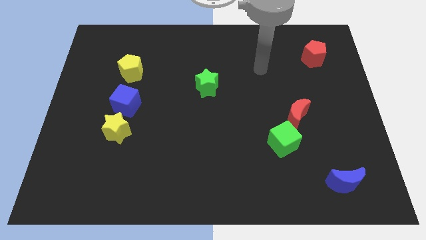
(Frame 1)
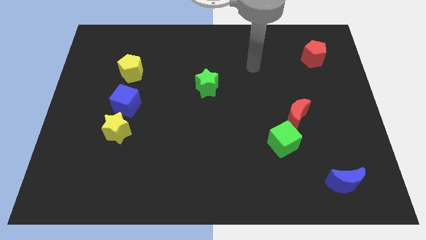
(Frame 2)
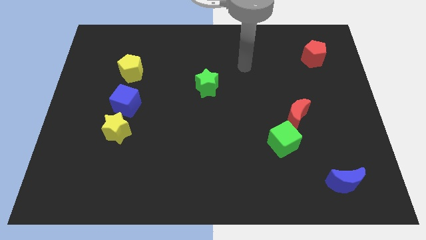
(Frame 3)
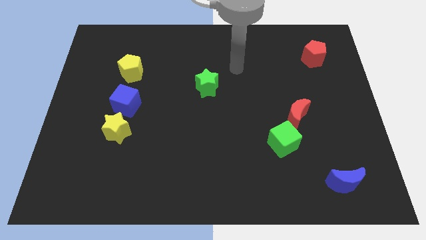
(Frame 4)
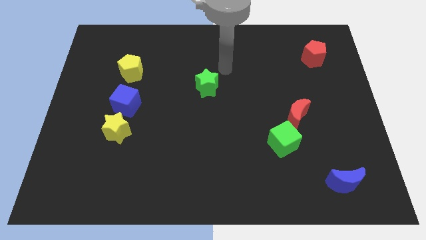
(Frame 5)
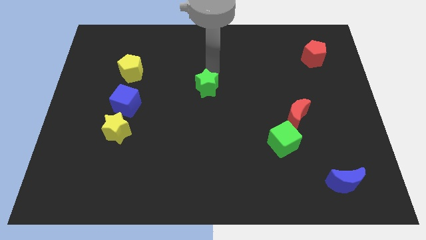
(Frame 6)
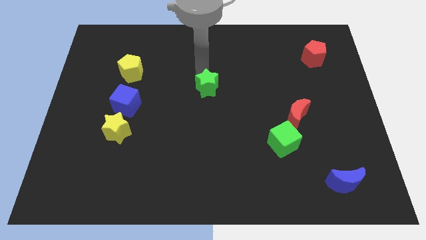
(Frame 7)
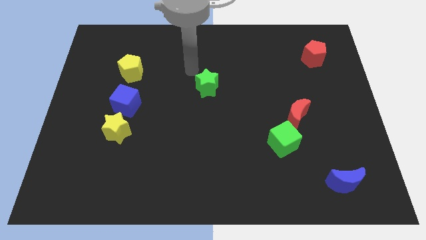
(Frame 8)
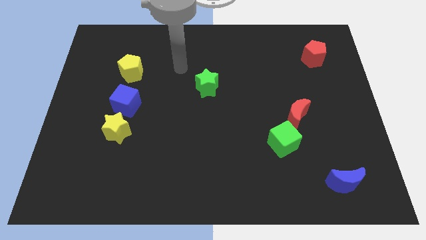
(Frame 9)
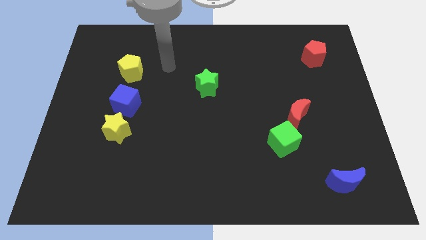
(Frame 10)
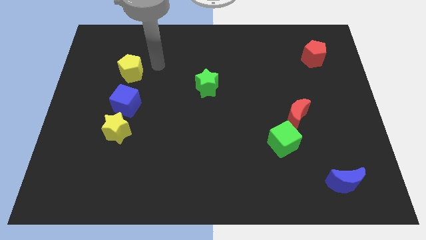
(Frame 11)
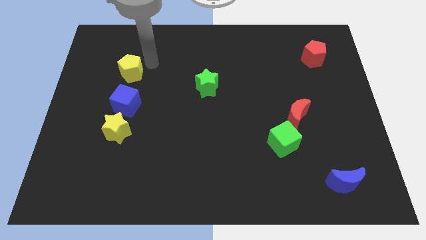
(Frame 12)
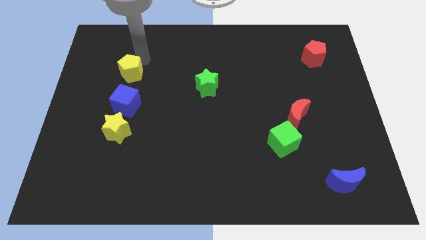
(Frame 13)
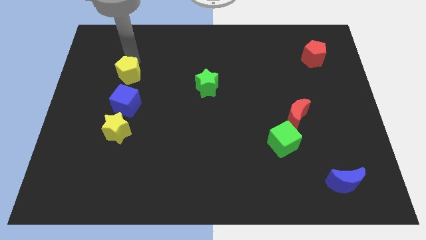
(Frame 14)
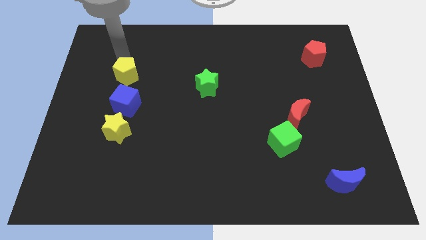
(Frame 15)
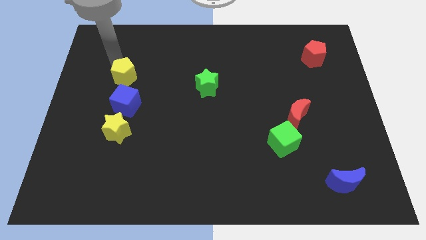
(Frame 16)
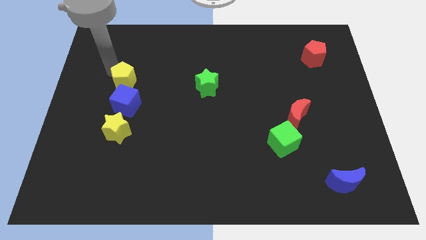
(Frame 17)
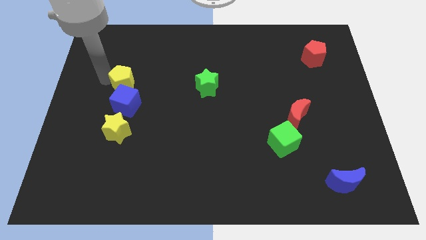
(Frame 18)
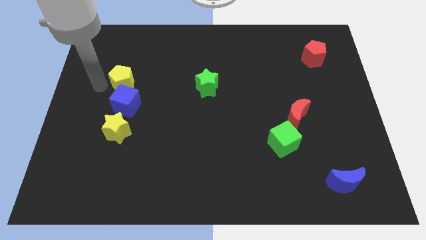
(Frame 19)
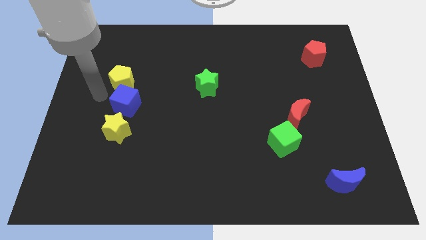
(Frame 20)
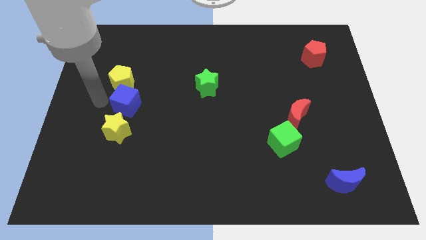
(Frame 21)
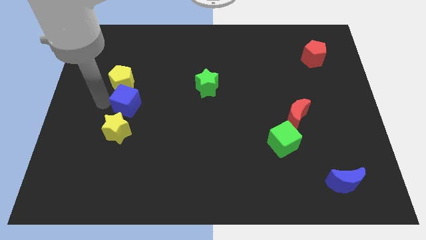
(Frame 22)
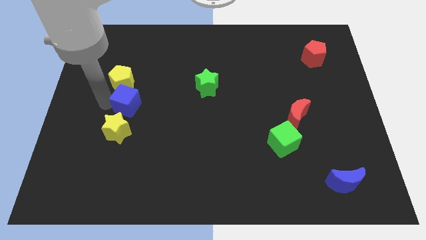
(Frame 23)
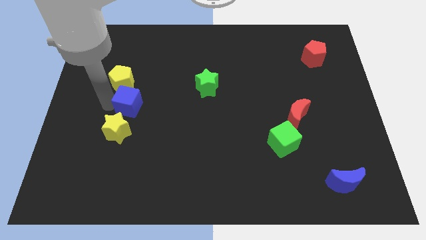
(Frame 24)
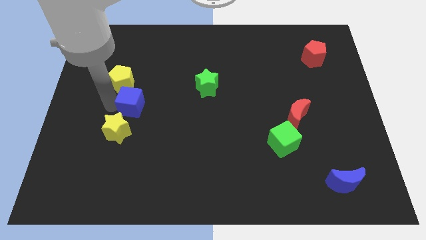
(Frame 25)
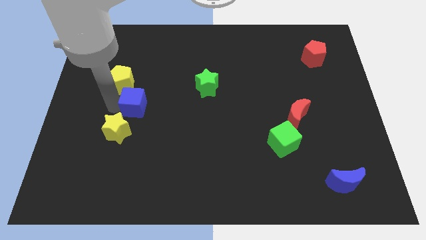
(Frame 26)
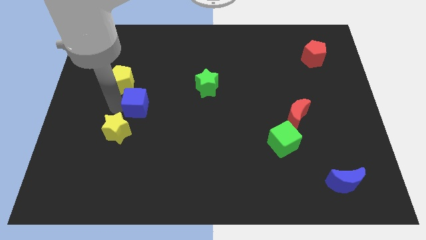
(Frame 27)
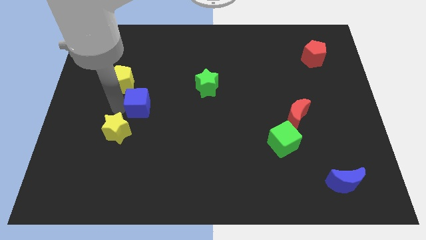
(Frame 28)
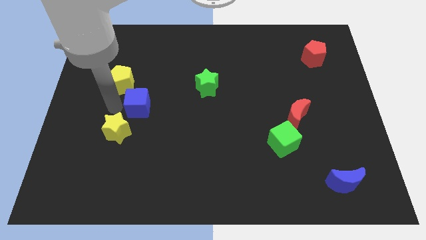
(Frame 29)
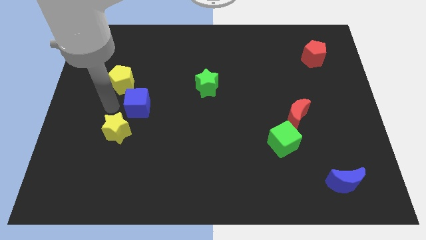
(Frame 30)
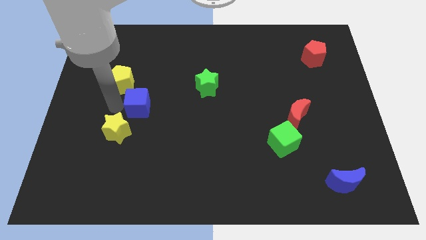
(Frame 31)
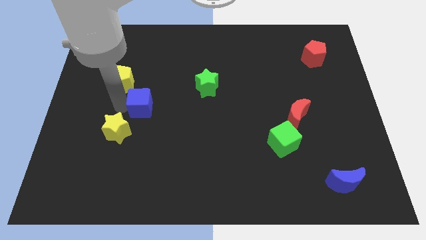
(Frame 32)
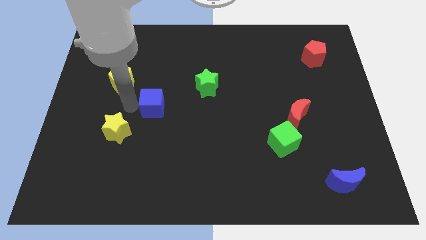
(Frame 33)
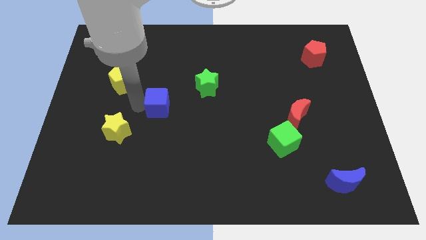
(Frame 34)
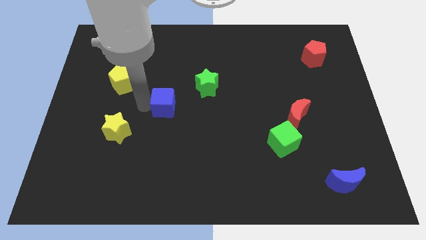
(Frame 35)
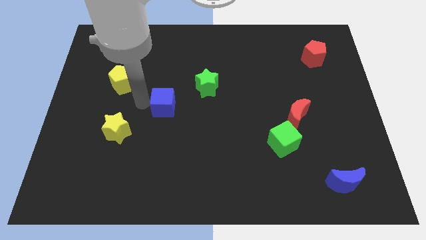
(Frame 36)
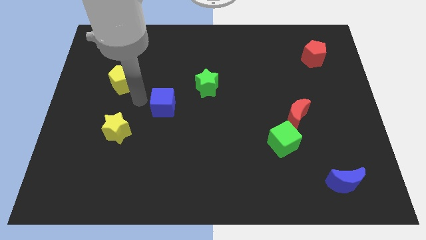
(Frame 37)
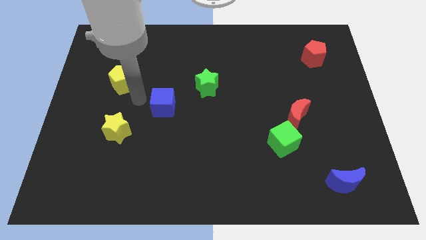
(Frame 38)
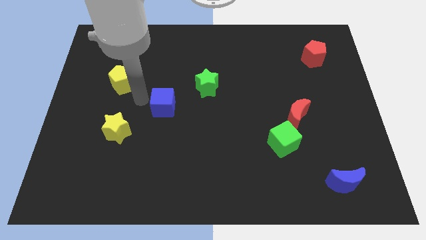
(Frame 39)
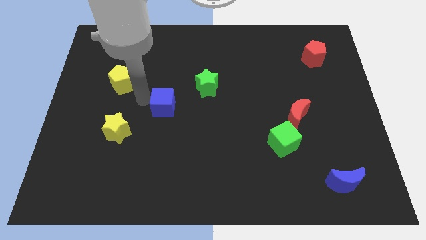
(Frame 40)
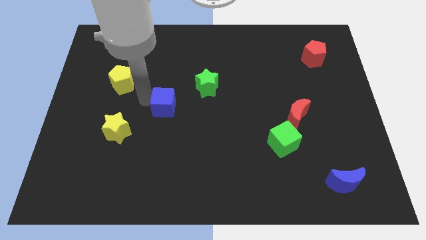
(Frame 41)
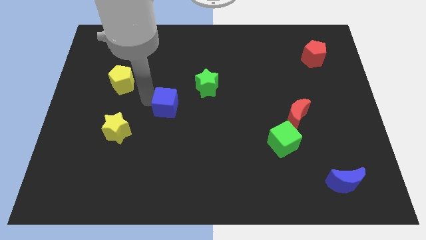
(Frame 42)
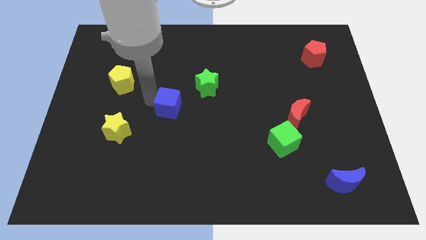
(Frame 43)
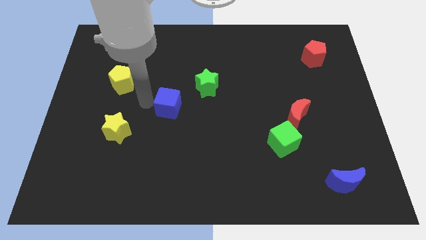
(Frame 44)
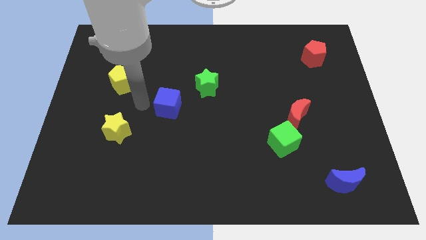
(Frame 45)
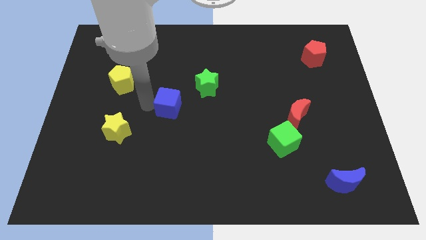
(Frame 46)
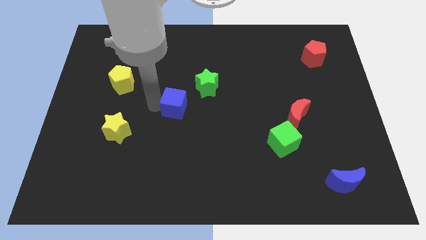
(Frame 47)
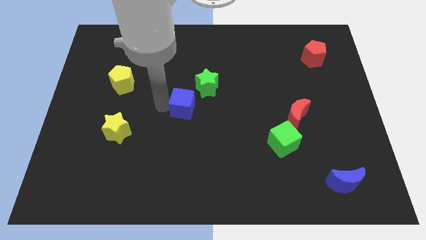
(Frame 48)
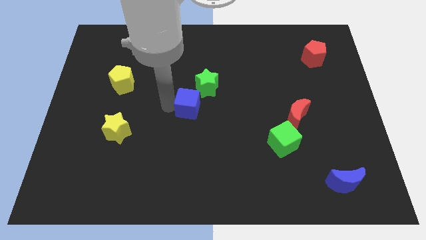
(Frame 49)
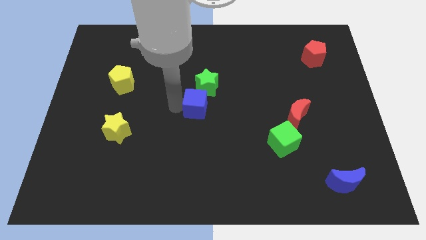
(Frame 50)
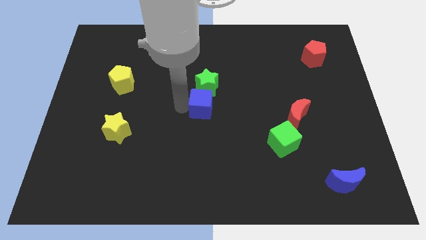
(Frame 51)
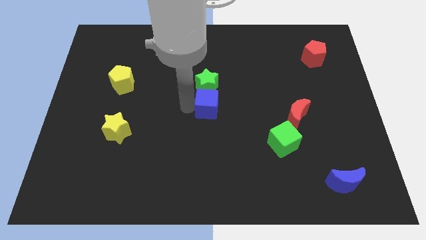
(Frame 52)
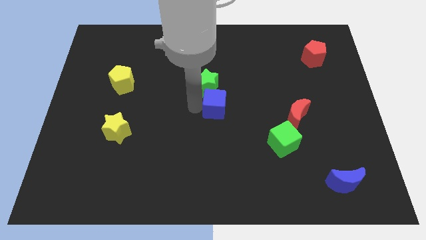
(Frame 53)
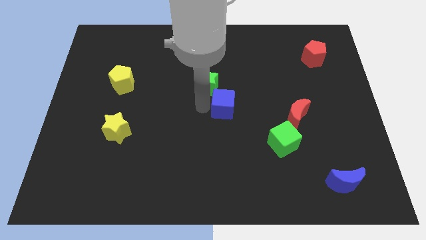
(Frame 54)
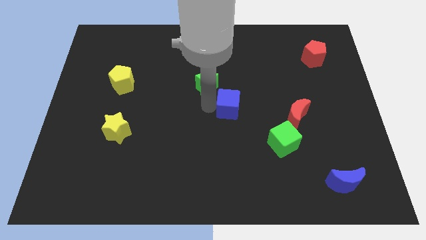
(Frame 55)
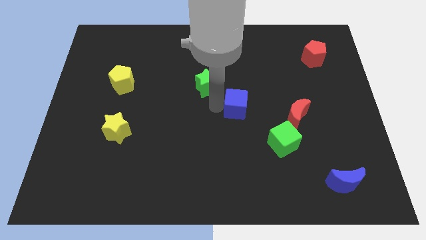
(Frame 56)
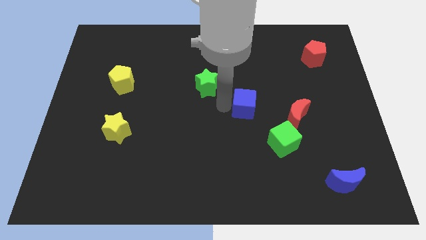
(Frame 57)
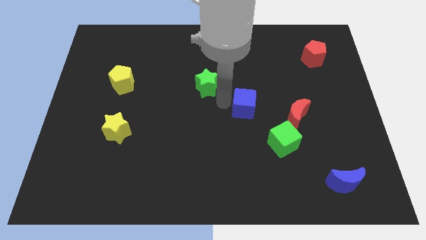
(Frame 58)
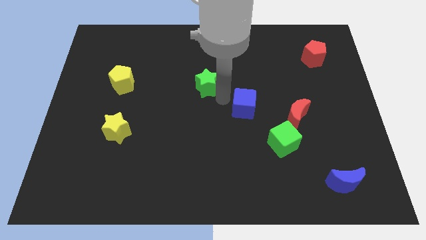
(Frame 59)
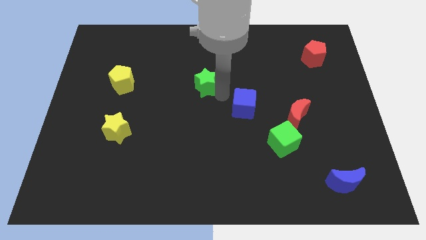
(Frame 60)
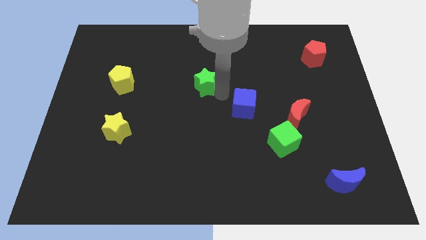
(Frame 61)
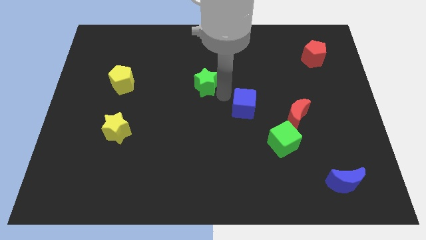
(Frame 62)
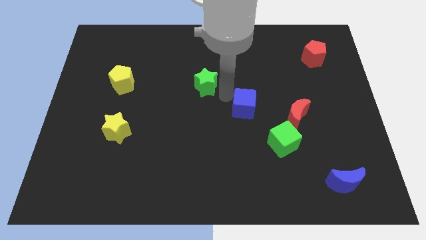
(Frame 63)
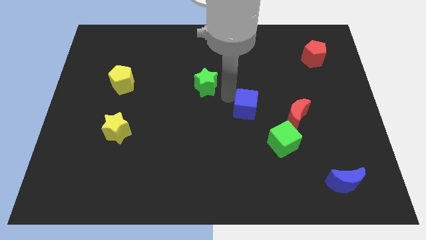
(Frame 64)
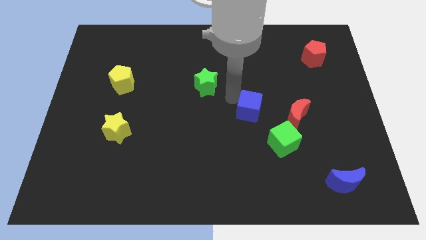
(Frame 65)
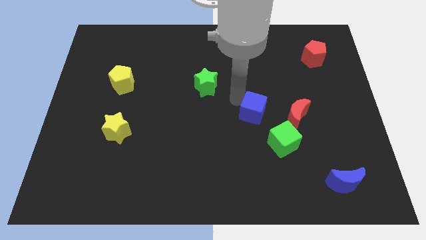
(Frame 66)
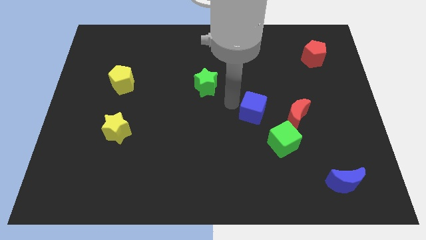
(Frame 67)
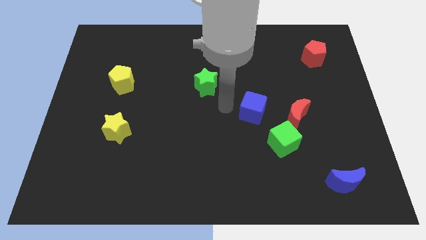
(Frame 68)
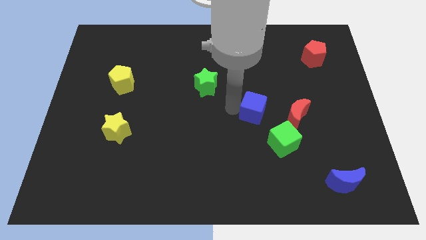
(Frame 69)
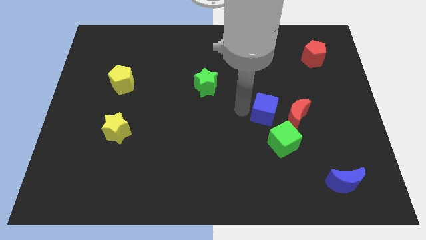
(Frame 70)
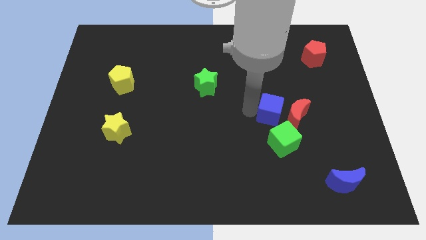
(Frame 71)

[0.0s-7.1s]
push the blue cube close to the red moon
